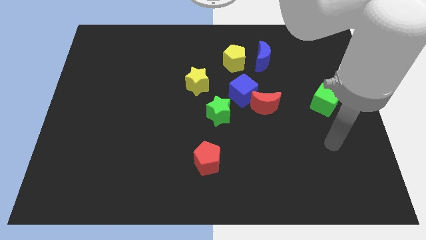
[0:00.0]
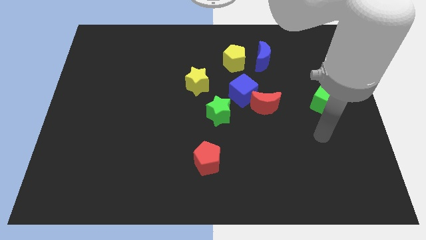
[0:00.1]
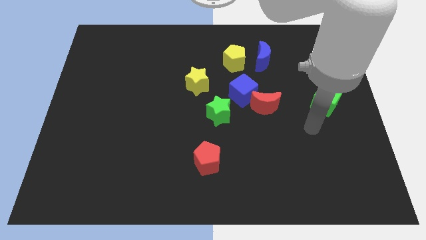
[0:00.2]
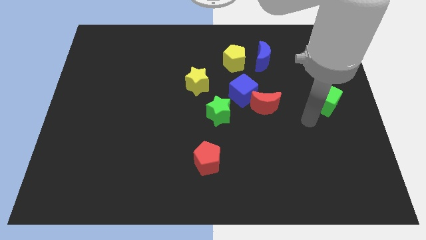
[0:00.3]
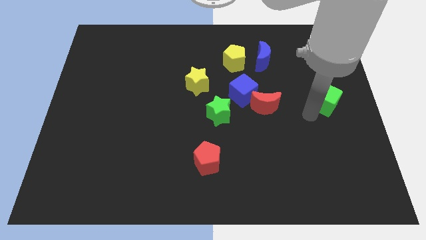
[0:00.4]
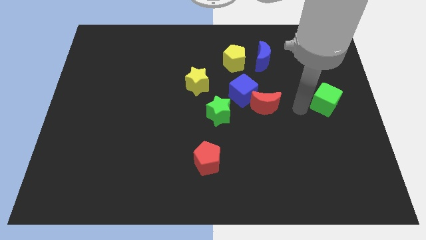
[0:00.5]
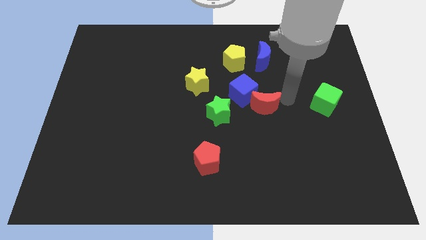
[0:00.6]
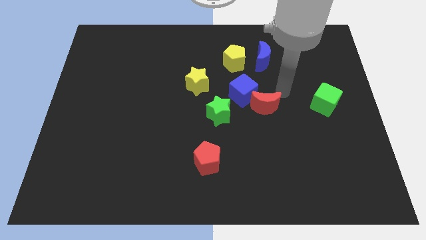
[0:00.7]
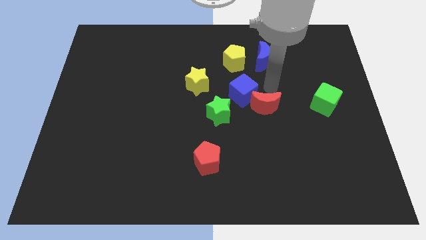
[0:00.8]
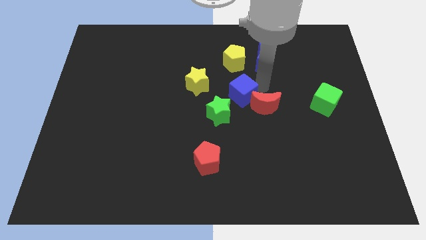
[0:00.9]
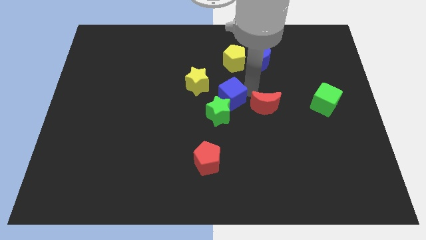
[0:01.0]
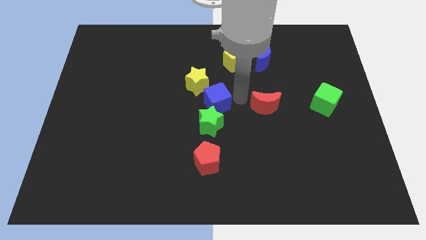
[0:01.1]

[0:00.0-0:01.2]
move the red moon away from the blue cube

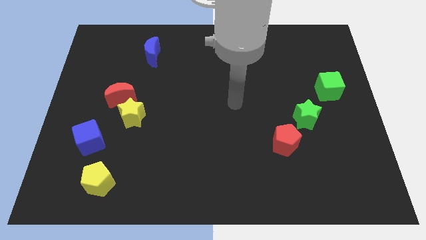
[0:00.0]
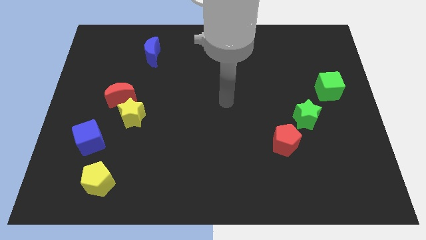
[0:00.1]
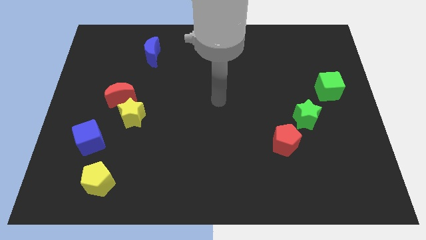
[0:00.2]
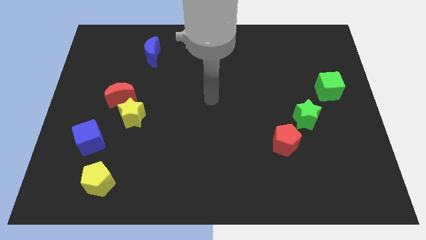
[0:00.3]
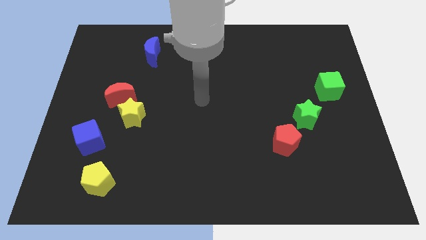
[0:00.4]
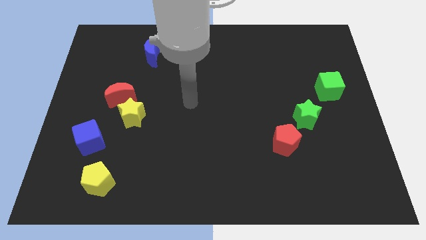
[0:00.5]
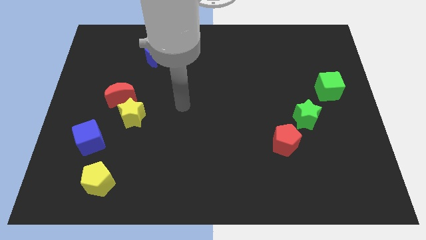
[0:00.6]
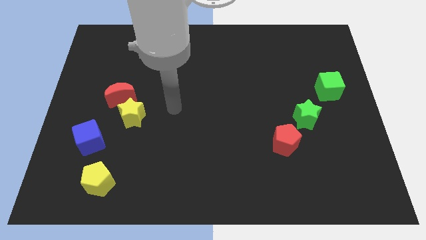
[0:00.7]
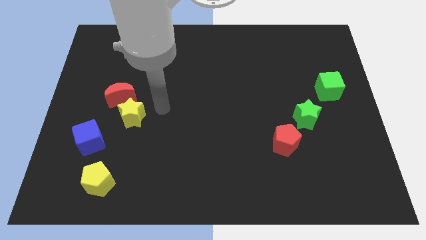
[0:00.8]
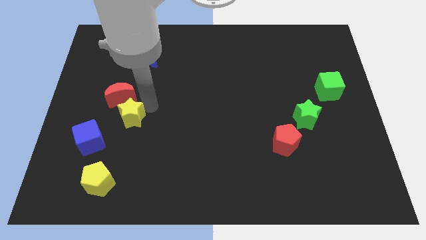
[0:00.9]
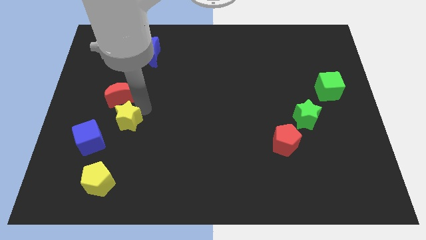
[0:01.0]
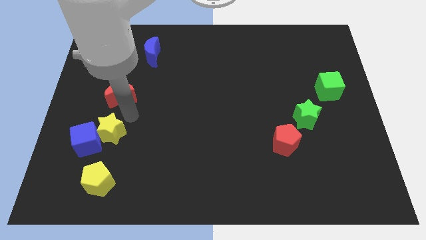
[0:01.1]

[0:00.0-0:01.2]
pull the red moon apart from the yellow star

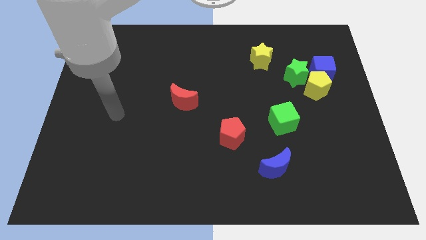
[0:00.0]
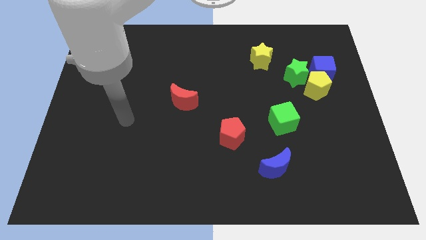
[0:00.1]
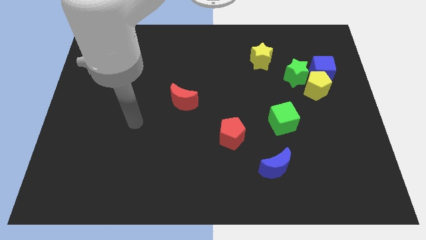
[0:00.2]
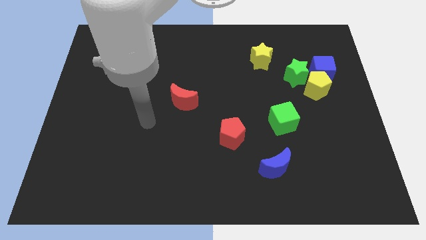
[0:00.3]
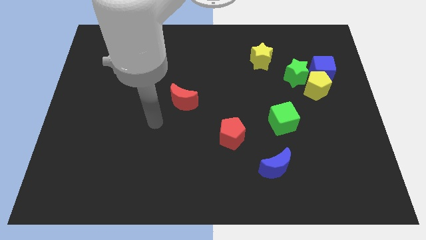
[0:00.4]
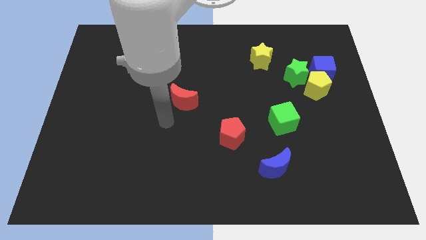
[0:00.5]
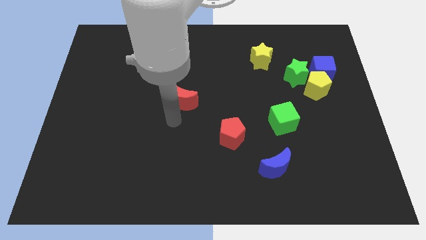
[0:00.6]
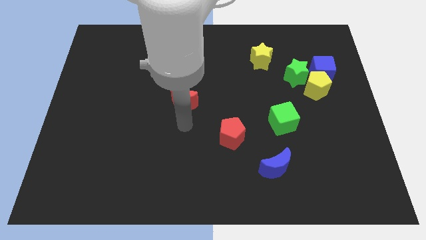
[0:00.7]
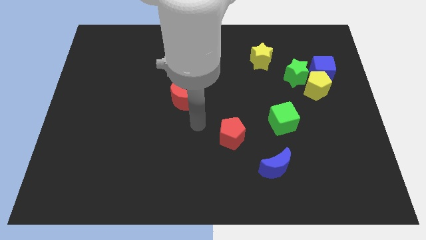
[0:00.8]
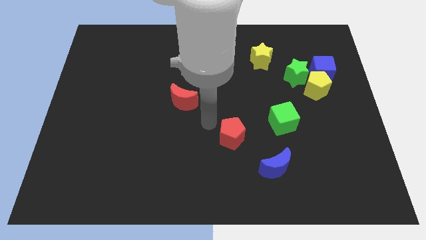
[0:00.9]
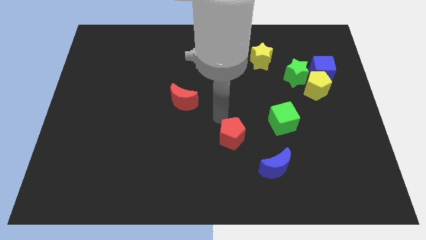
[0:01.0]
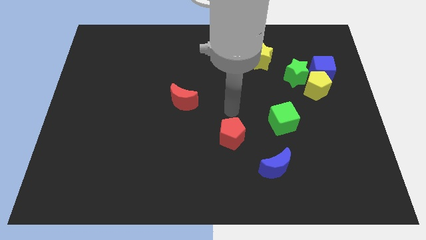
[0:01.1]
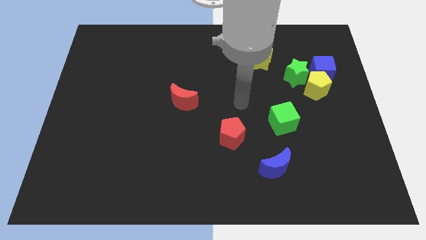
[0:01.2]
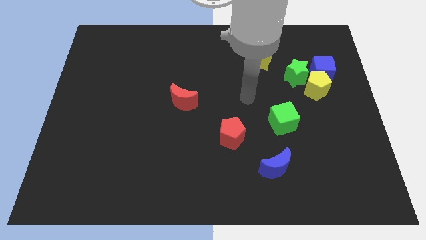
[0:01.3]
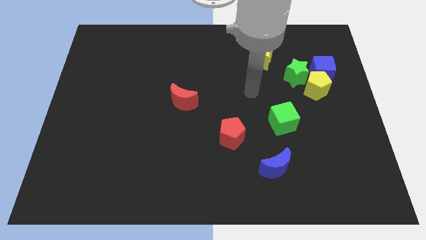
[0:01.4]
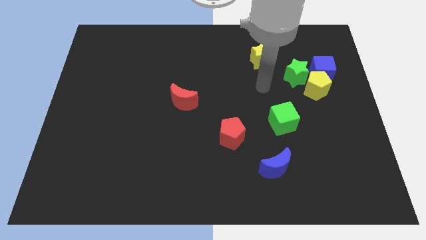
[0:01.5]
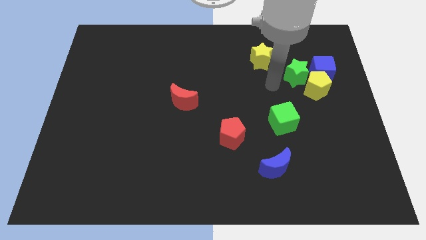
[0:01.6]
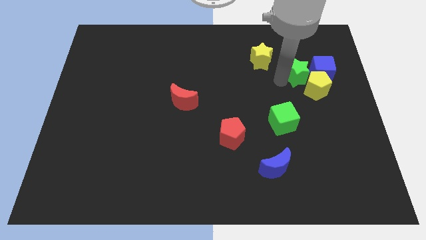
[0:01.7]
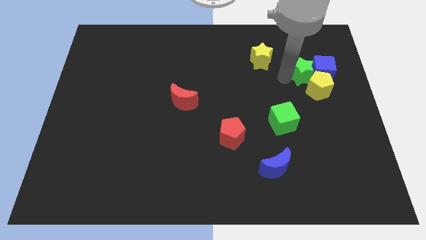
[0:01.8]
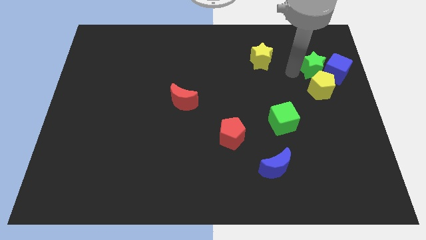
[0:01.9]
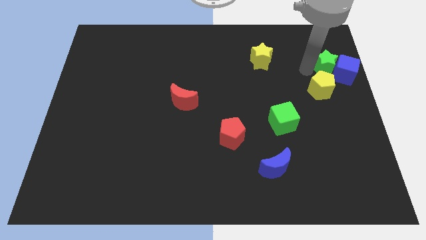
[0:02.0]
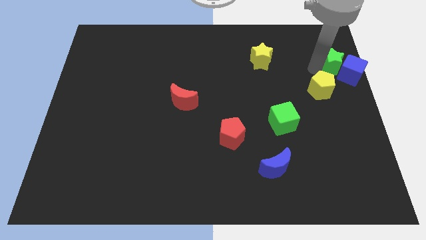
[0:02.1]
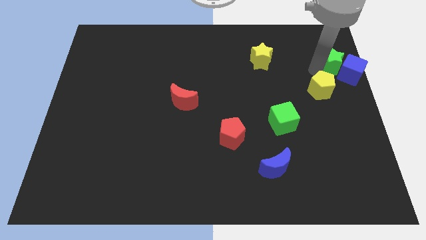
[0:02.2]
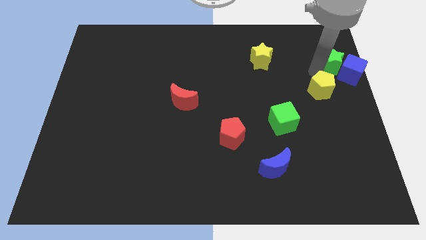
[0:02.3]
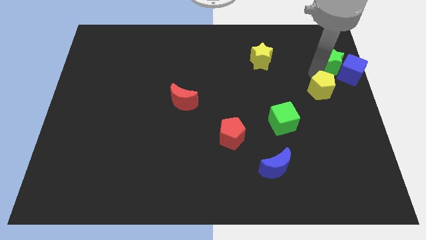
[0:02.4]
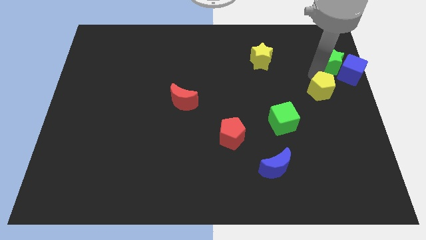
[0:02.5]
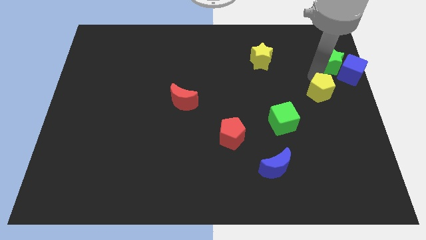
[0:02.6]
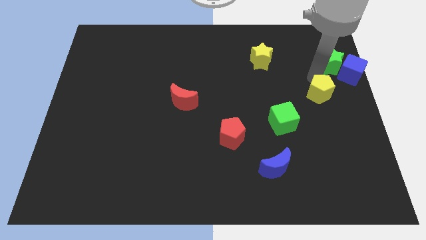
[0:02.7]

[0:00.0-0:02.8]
pull the yellow pentagon apart from the blue cube and green star

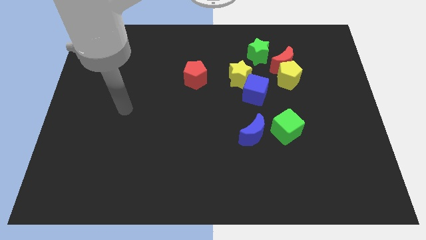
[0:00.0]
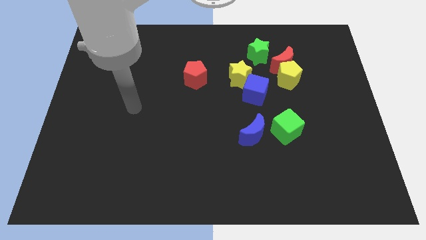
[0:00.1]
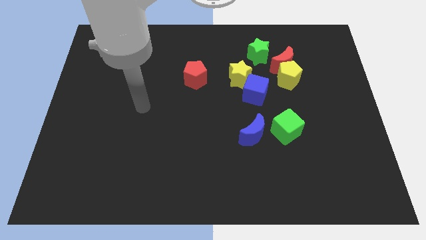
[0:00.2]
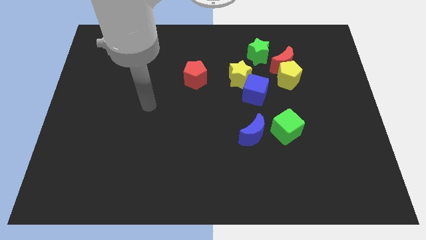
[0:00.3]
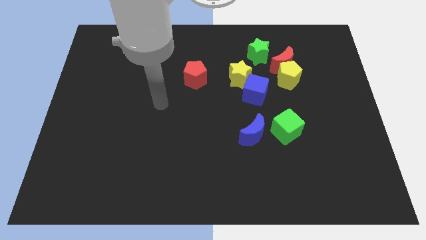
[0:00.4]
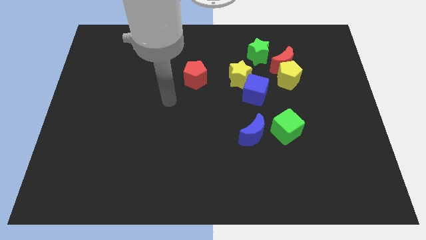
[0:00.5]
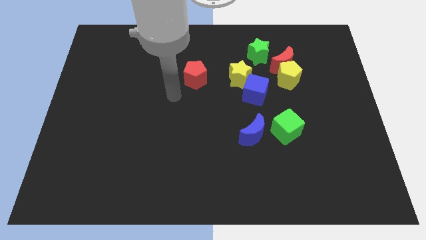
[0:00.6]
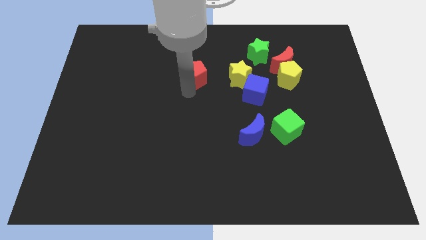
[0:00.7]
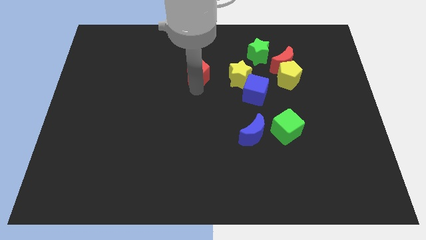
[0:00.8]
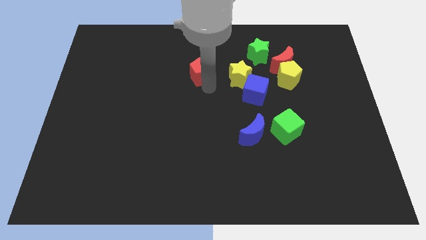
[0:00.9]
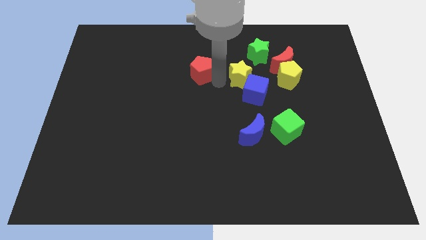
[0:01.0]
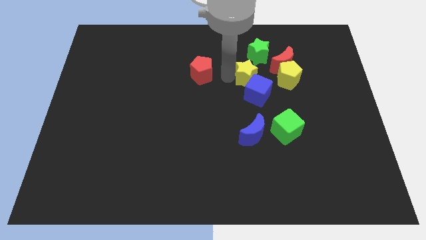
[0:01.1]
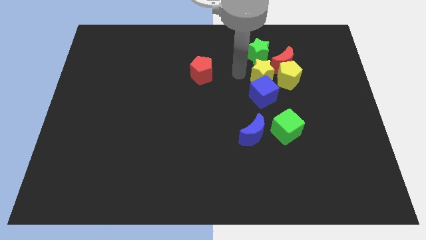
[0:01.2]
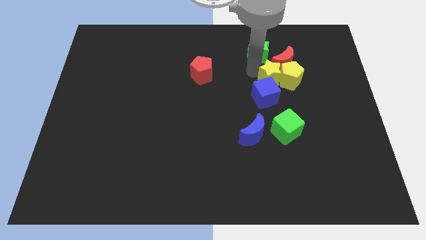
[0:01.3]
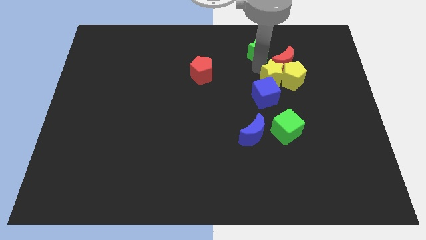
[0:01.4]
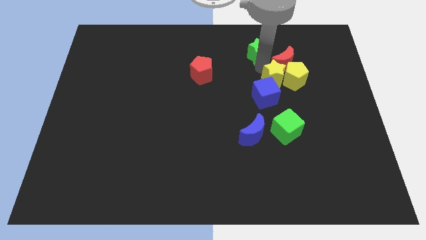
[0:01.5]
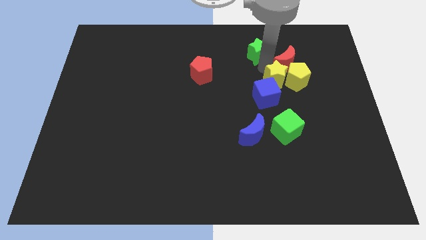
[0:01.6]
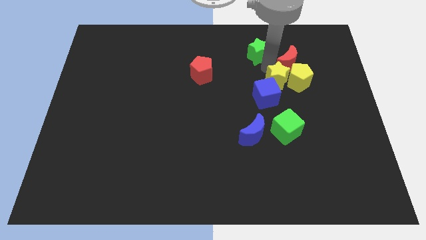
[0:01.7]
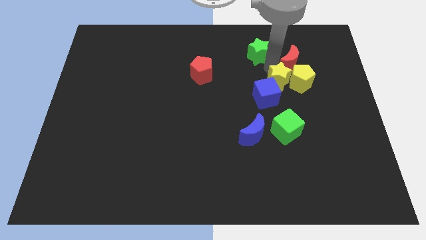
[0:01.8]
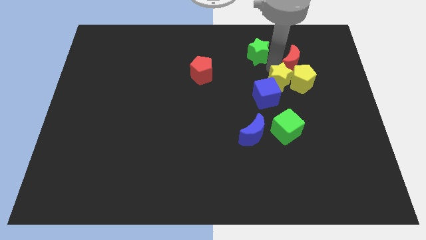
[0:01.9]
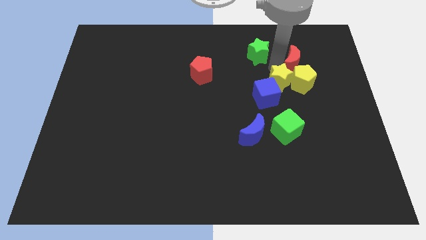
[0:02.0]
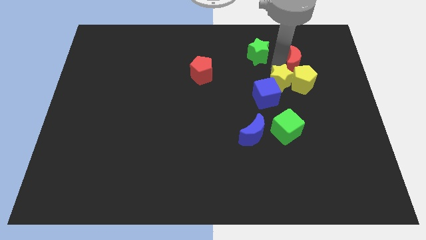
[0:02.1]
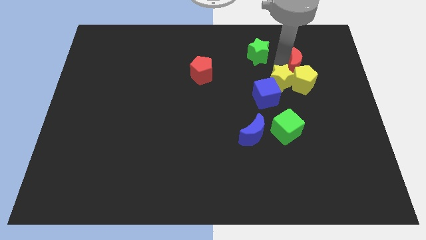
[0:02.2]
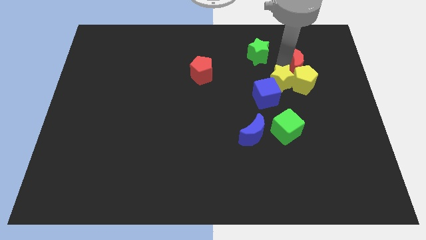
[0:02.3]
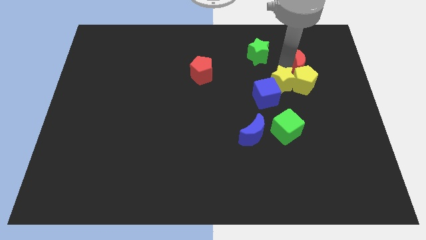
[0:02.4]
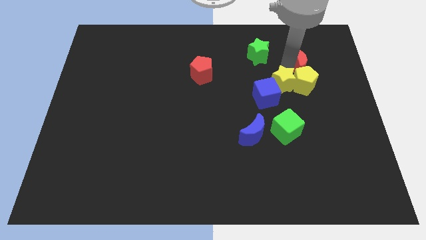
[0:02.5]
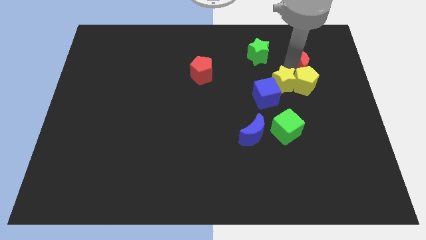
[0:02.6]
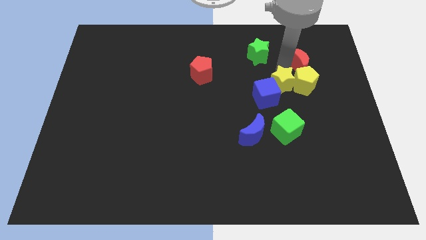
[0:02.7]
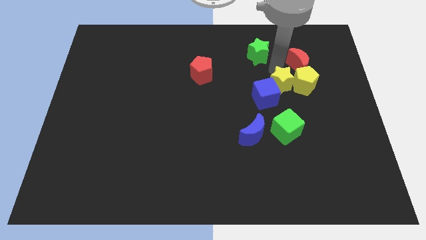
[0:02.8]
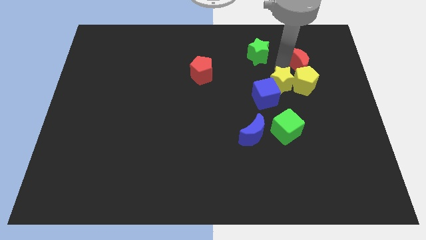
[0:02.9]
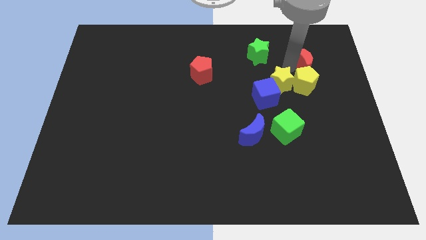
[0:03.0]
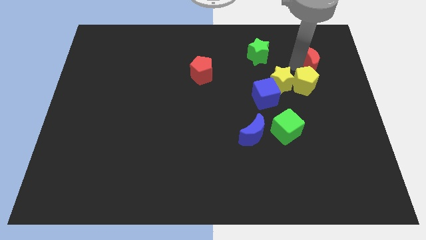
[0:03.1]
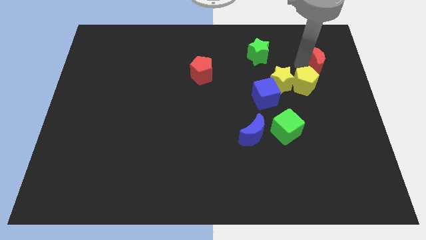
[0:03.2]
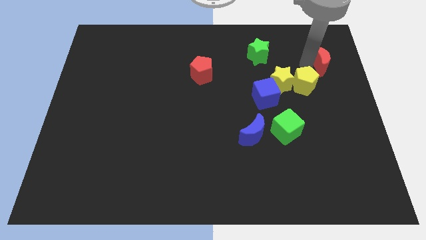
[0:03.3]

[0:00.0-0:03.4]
separate the red moon from the yellow pentagon and green star

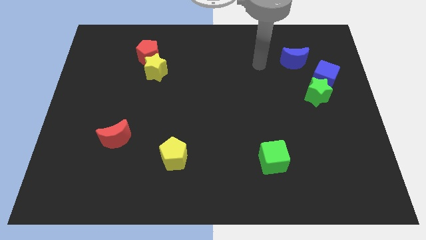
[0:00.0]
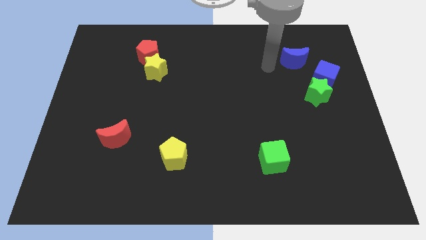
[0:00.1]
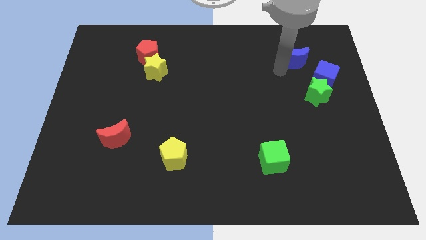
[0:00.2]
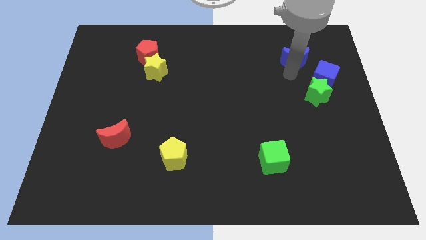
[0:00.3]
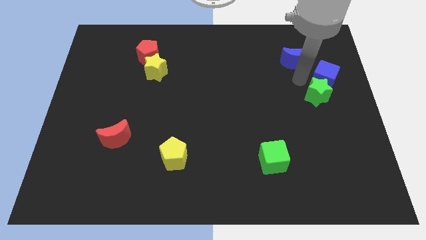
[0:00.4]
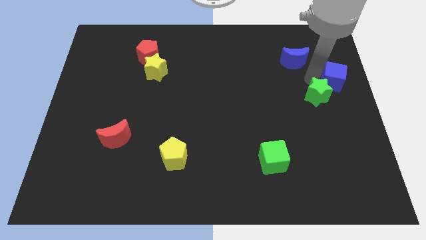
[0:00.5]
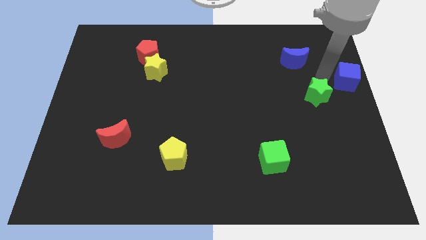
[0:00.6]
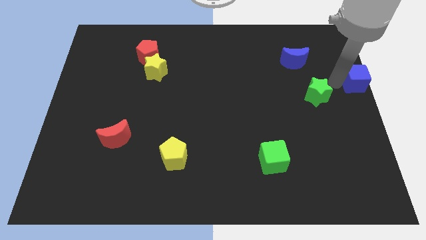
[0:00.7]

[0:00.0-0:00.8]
move the green star away from the blue cube

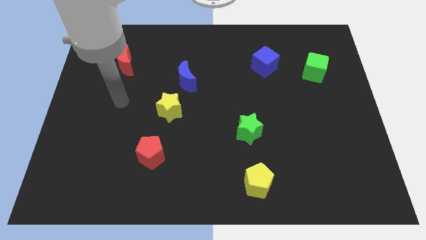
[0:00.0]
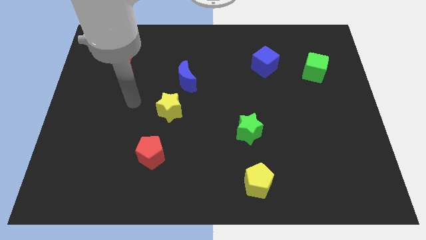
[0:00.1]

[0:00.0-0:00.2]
pull the blue moon apart from the yellow star
